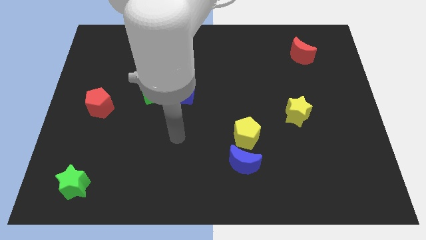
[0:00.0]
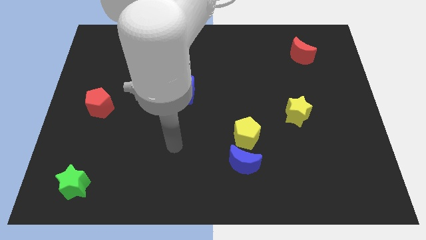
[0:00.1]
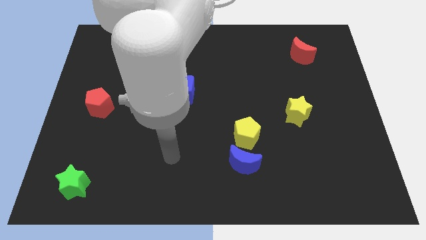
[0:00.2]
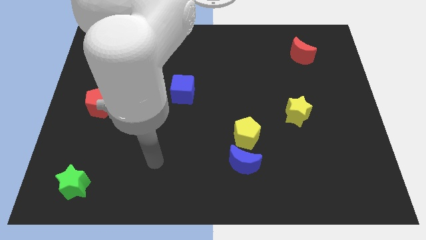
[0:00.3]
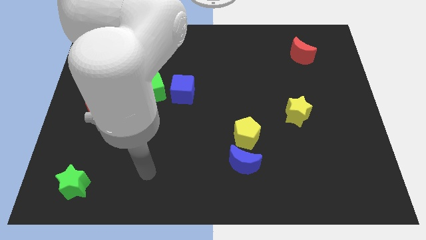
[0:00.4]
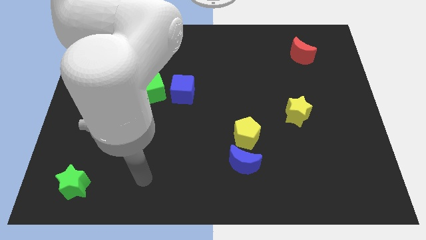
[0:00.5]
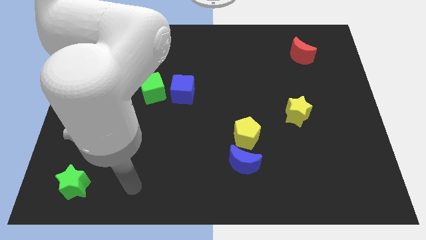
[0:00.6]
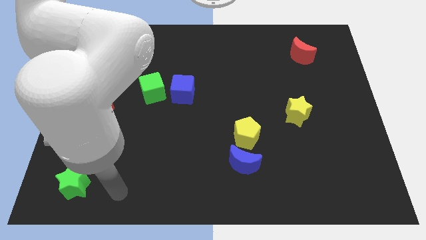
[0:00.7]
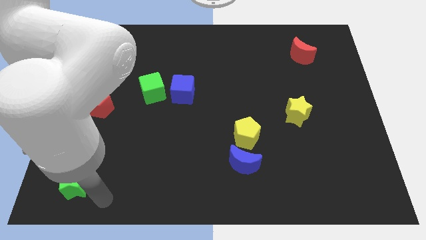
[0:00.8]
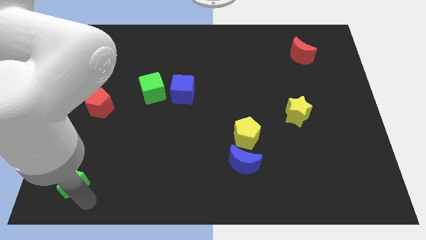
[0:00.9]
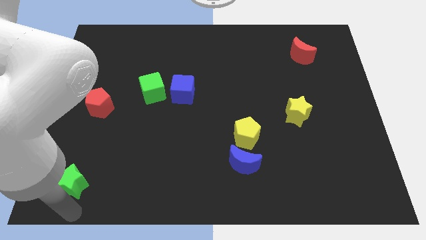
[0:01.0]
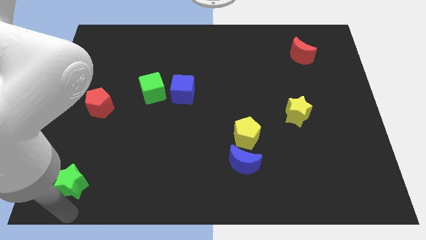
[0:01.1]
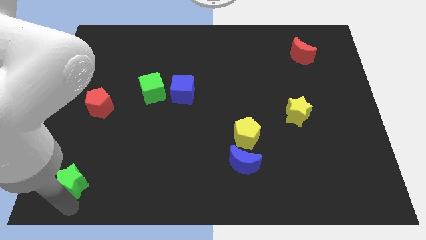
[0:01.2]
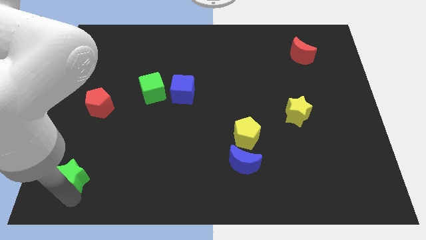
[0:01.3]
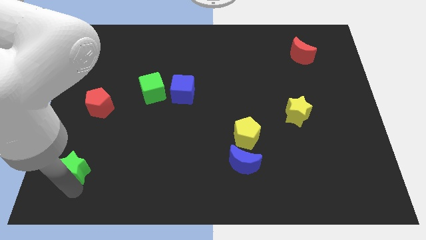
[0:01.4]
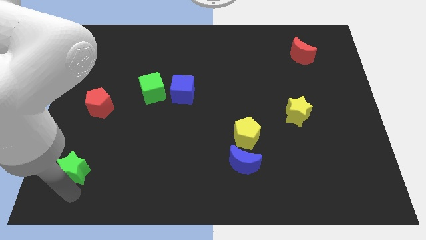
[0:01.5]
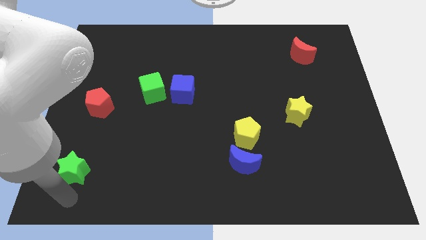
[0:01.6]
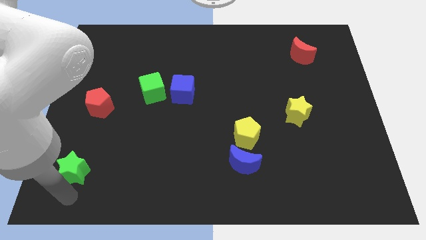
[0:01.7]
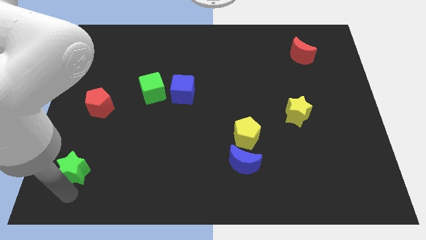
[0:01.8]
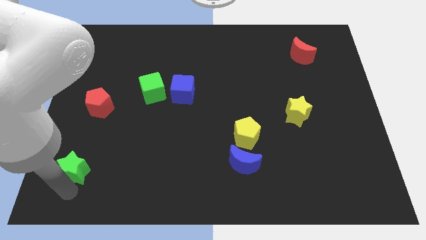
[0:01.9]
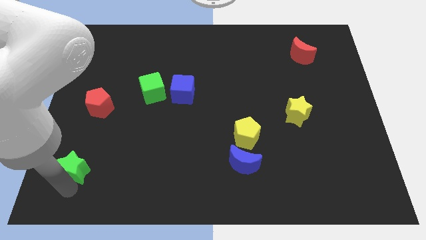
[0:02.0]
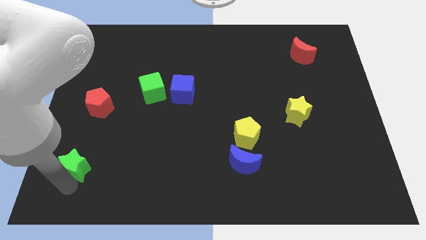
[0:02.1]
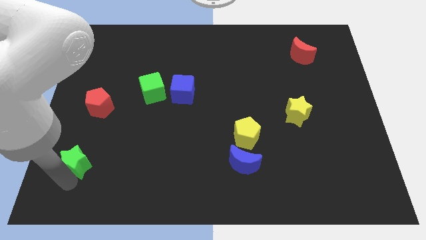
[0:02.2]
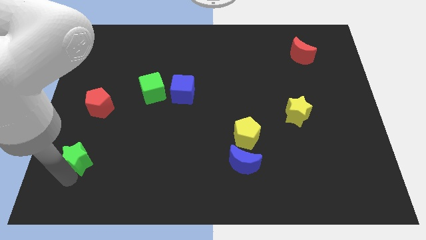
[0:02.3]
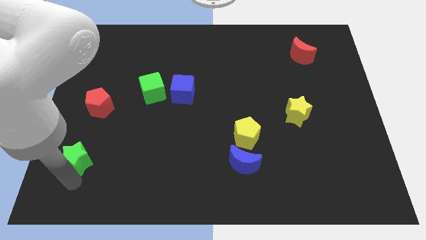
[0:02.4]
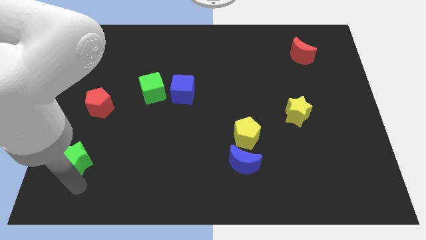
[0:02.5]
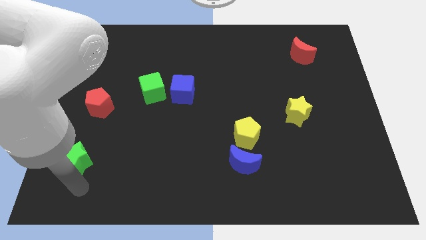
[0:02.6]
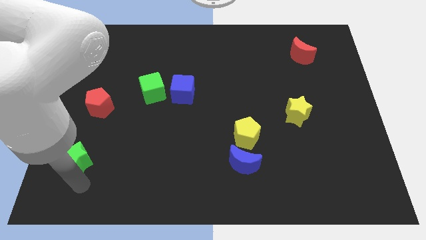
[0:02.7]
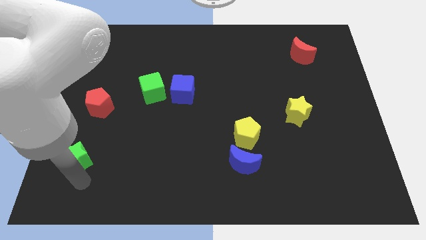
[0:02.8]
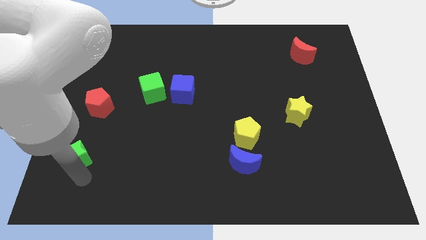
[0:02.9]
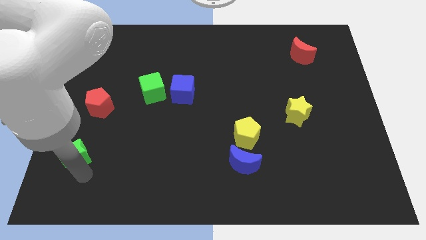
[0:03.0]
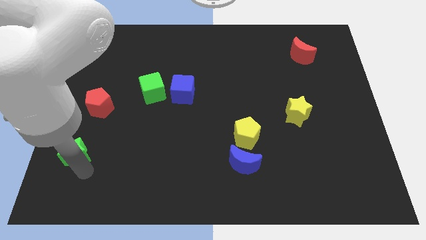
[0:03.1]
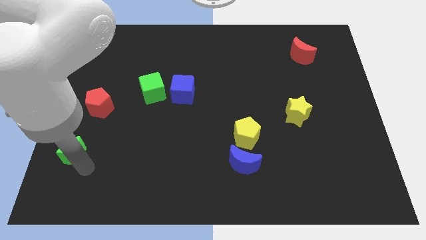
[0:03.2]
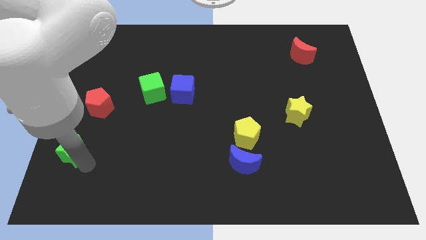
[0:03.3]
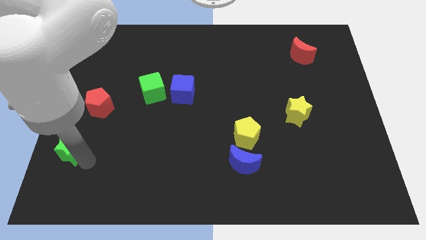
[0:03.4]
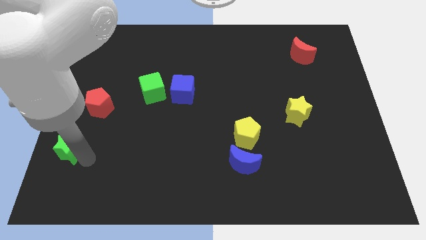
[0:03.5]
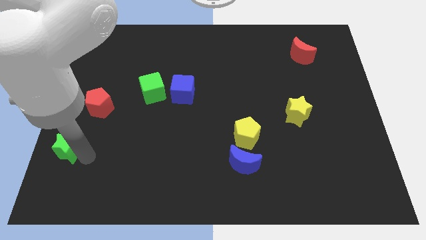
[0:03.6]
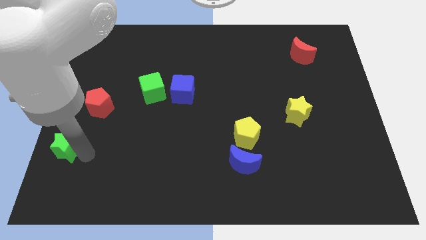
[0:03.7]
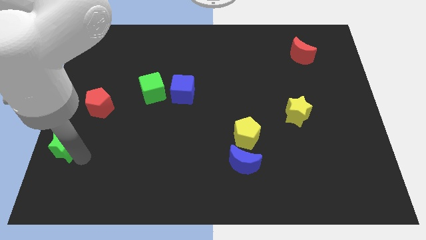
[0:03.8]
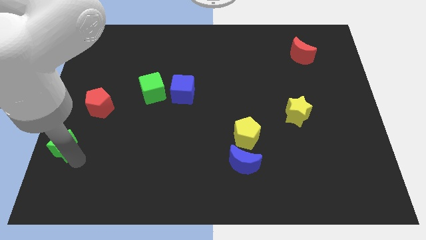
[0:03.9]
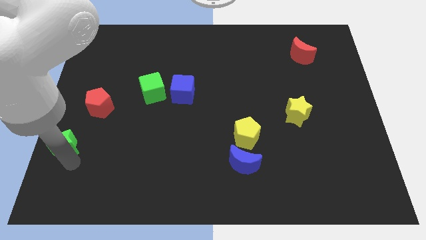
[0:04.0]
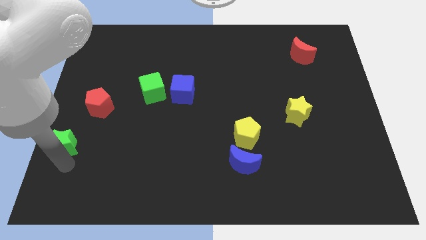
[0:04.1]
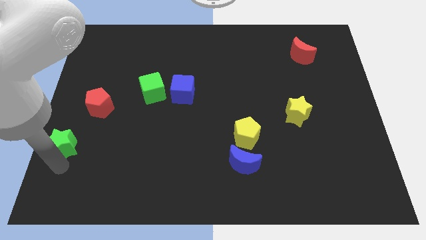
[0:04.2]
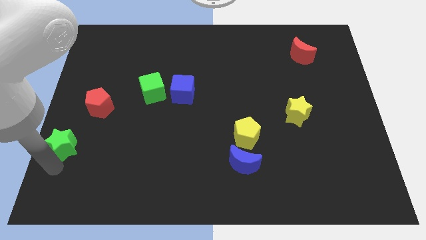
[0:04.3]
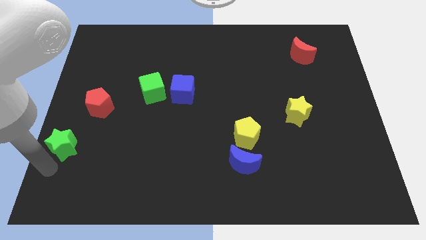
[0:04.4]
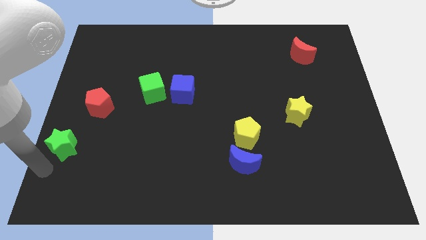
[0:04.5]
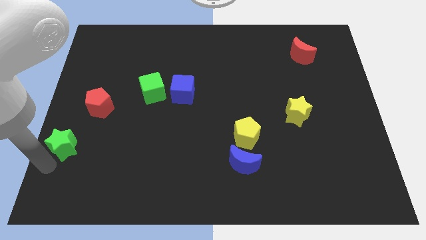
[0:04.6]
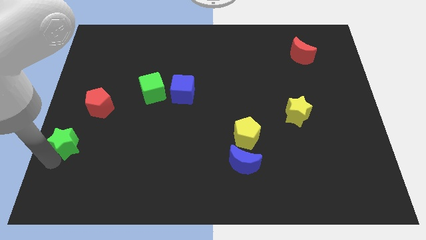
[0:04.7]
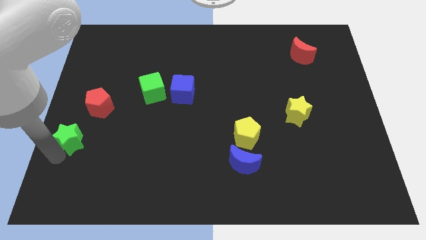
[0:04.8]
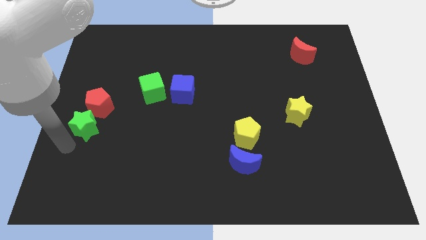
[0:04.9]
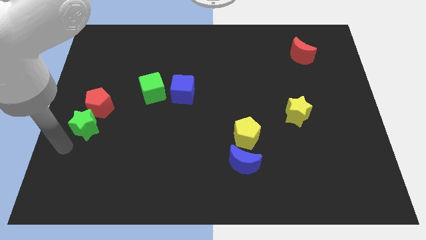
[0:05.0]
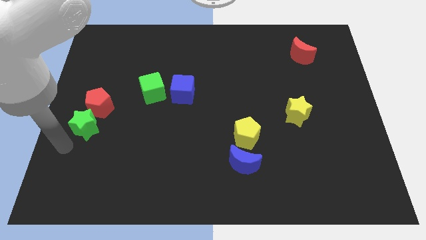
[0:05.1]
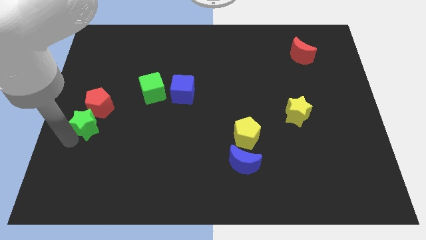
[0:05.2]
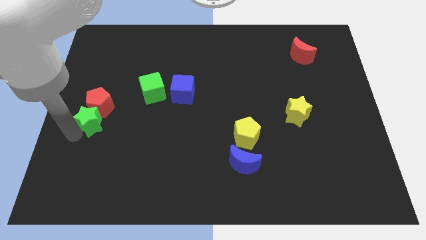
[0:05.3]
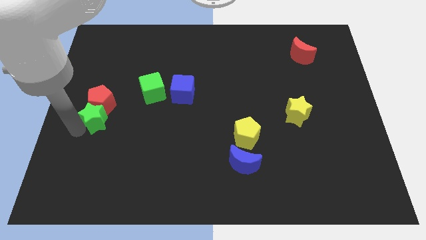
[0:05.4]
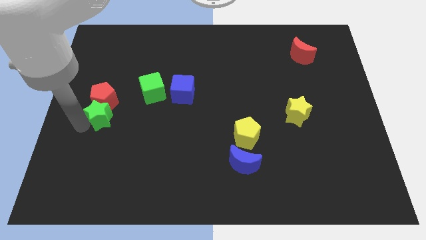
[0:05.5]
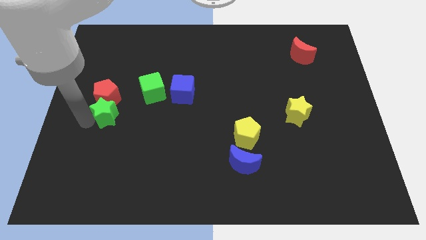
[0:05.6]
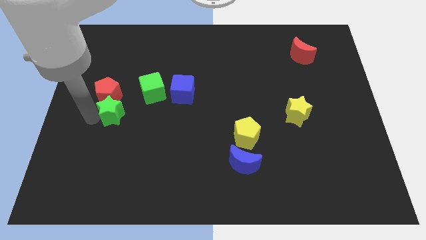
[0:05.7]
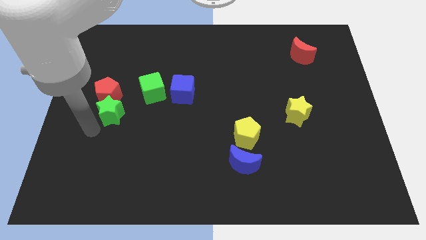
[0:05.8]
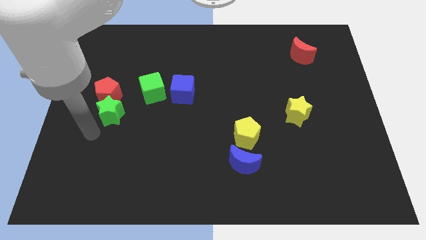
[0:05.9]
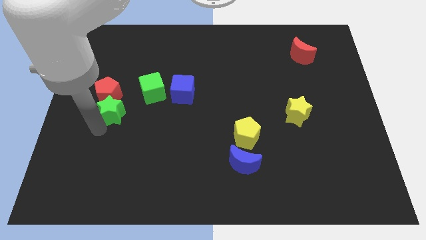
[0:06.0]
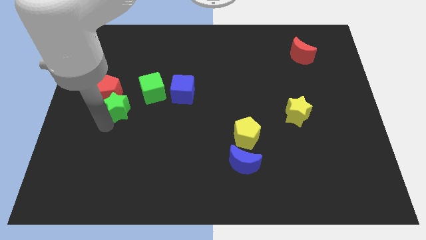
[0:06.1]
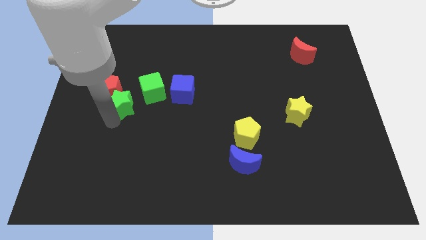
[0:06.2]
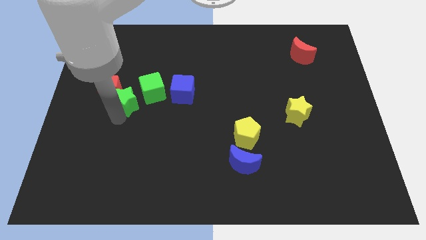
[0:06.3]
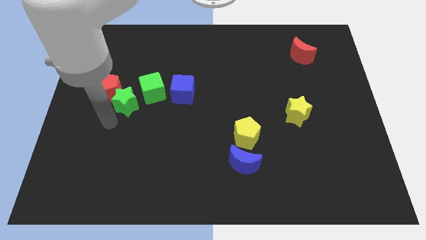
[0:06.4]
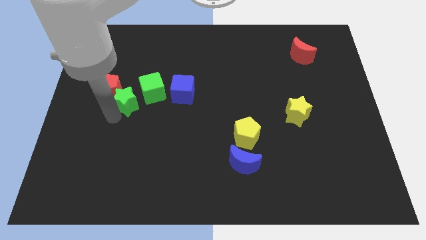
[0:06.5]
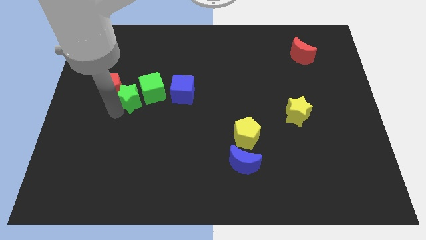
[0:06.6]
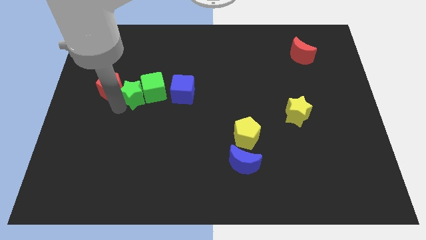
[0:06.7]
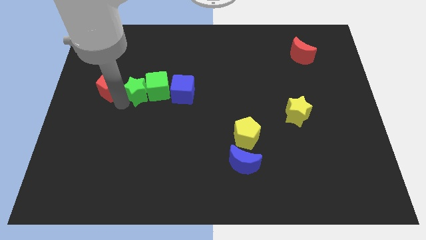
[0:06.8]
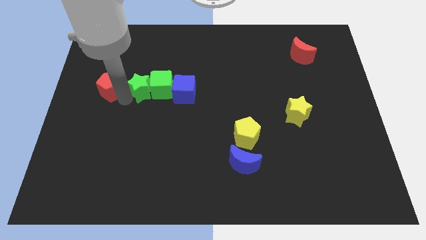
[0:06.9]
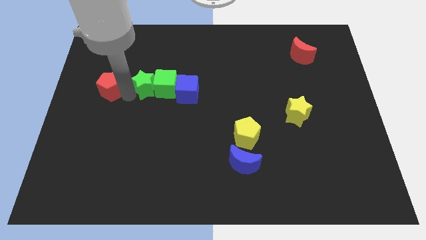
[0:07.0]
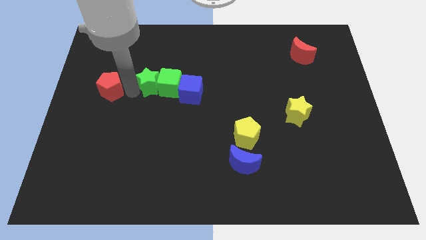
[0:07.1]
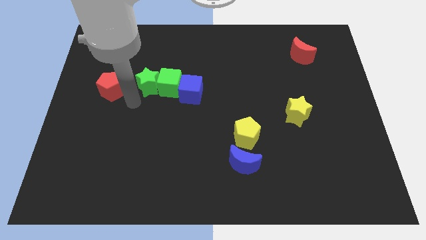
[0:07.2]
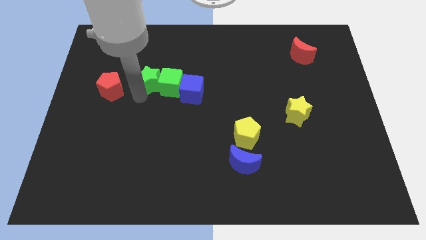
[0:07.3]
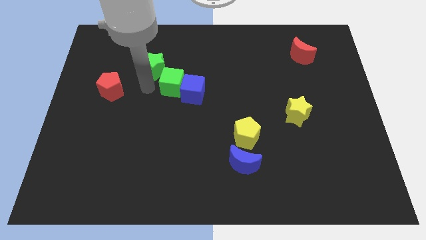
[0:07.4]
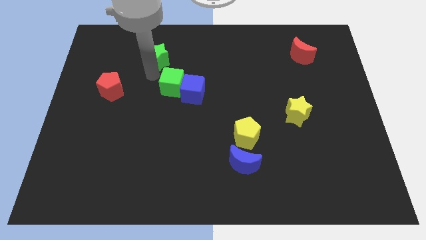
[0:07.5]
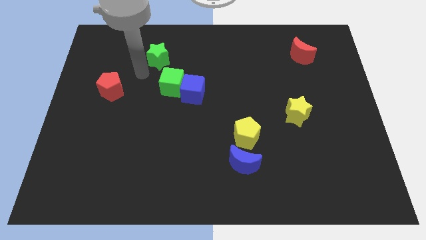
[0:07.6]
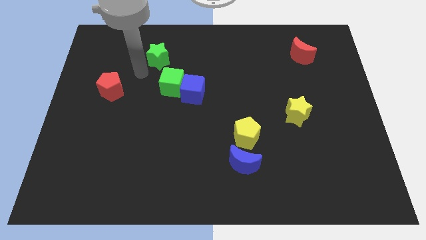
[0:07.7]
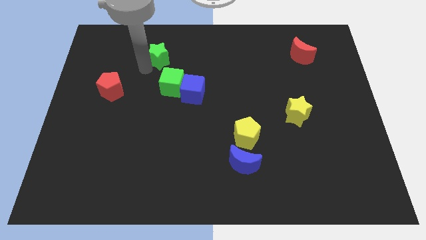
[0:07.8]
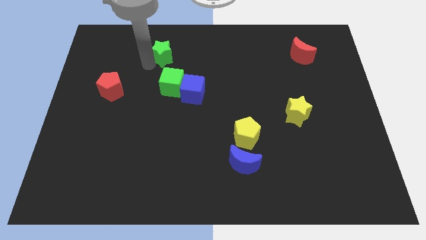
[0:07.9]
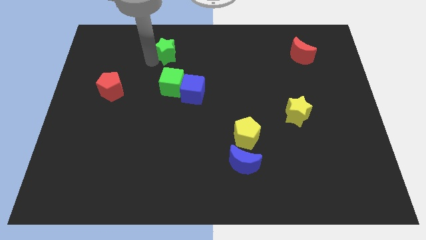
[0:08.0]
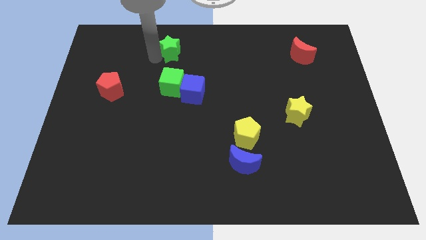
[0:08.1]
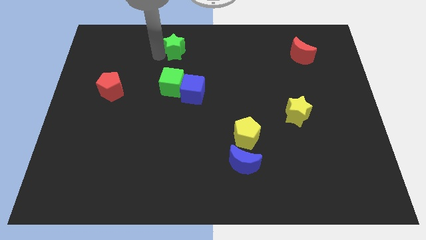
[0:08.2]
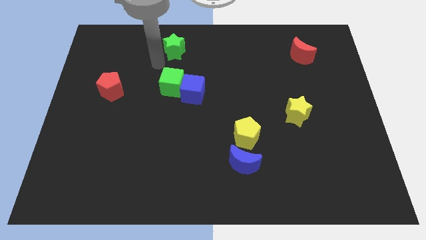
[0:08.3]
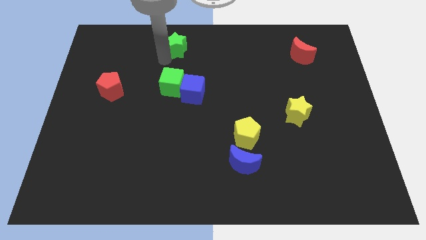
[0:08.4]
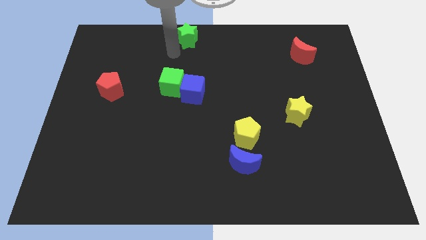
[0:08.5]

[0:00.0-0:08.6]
move the green star to the top side
